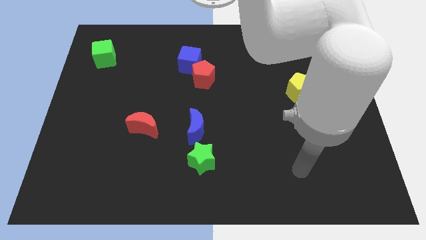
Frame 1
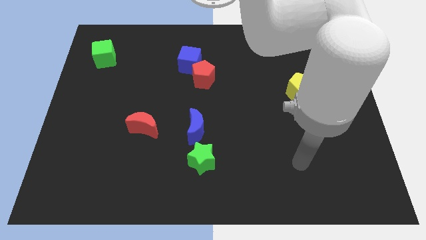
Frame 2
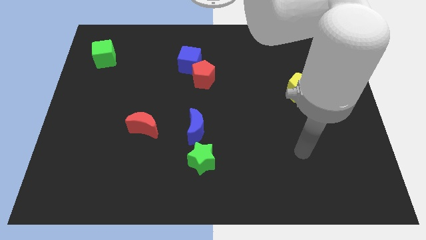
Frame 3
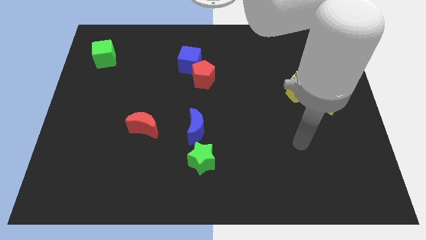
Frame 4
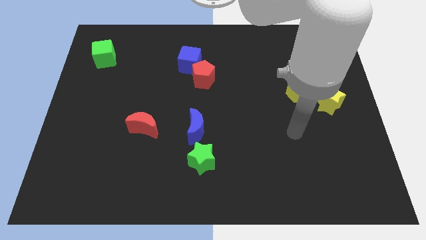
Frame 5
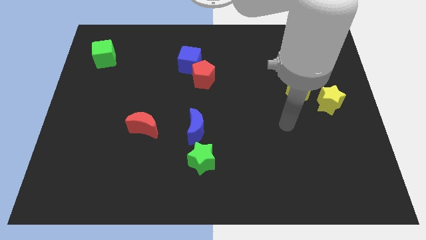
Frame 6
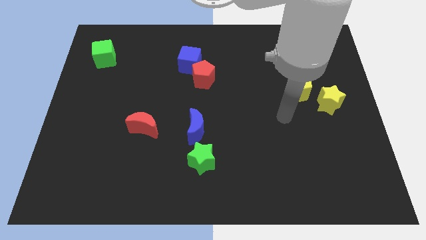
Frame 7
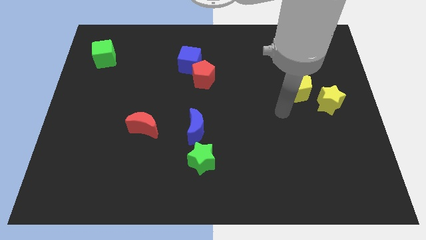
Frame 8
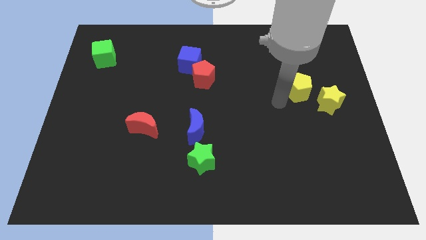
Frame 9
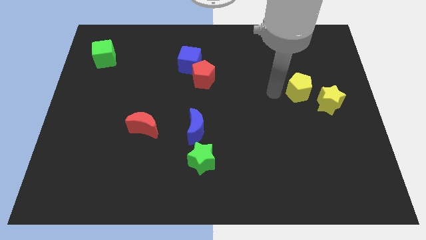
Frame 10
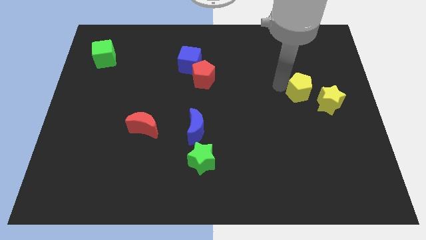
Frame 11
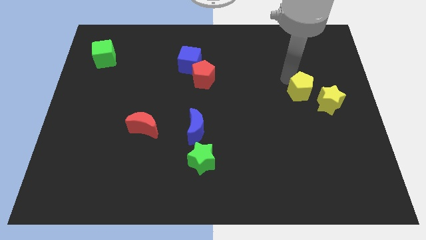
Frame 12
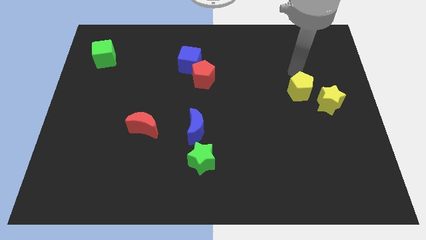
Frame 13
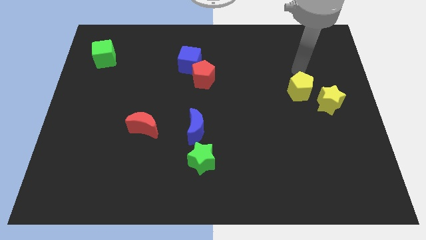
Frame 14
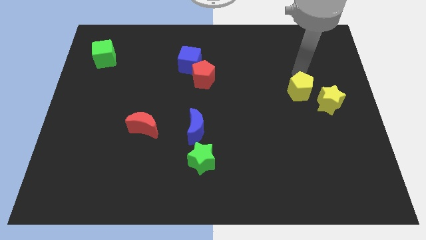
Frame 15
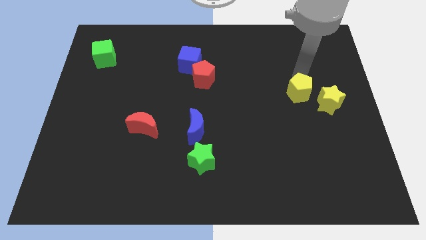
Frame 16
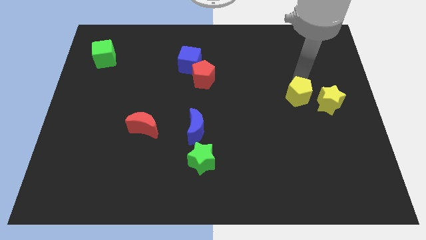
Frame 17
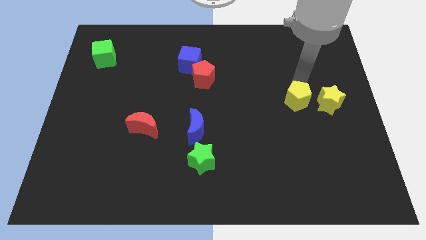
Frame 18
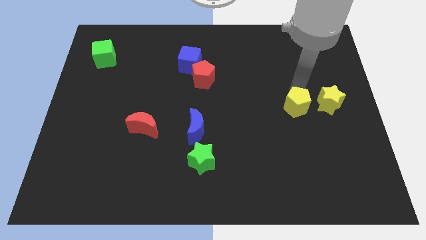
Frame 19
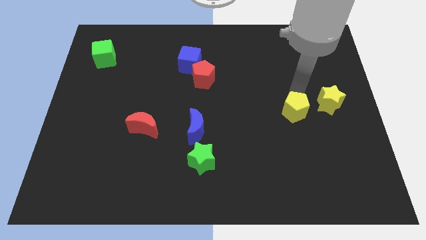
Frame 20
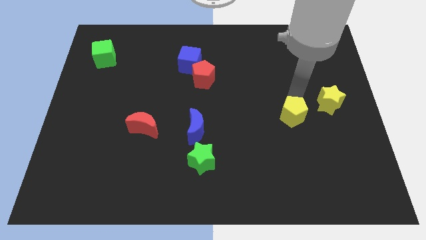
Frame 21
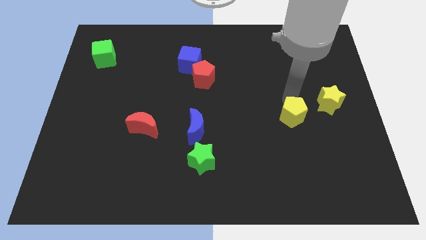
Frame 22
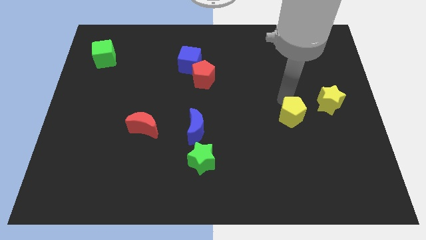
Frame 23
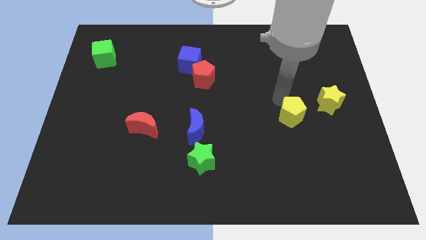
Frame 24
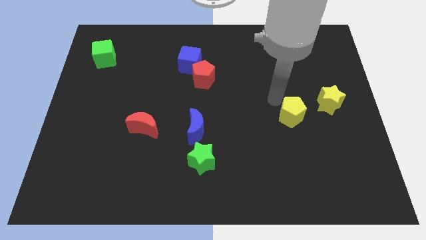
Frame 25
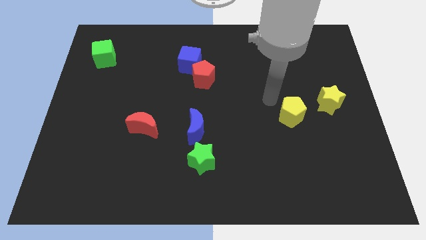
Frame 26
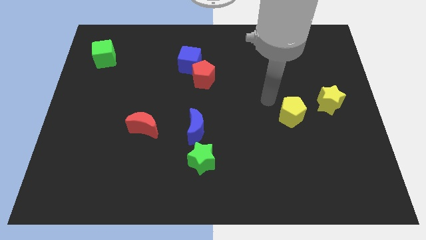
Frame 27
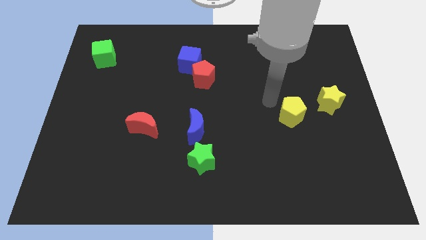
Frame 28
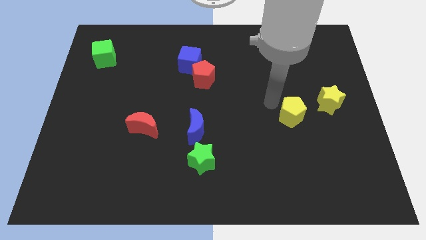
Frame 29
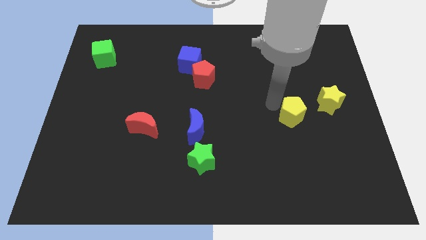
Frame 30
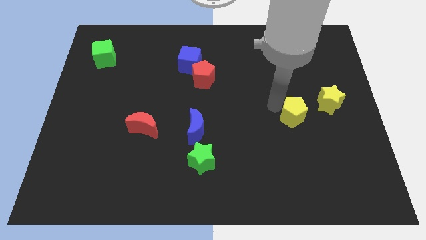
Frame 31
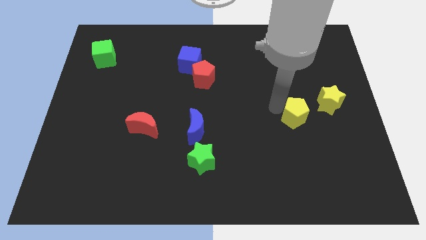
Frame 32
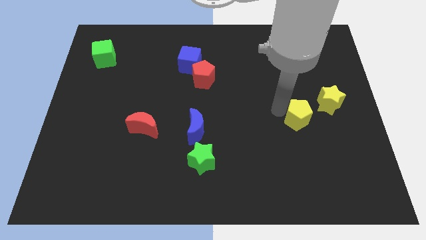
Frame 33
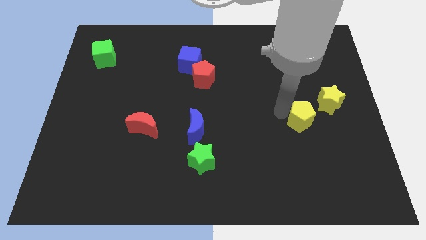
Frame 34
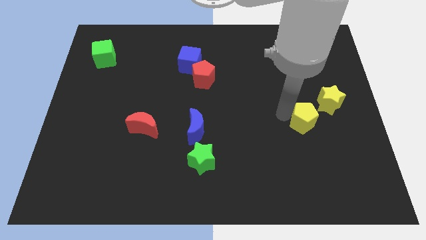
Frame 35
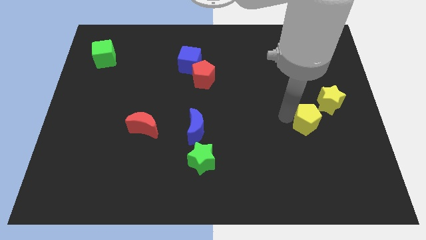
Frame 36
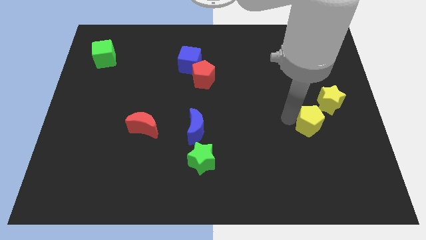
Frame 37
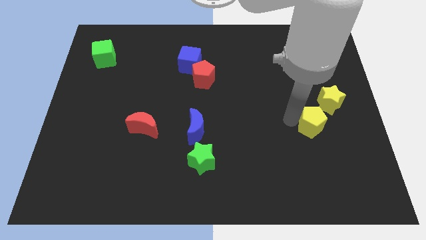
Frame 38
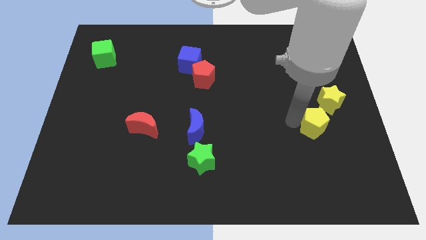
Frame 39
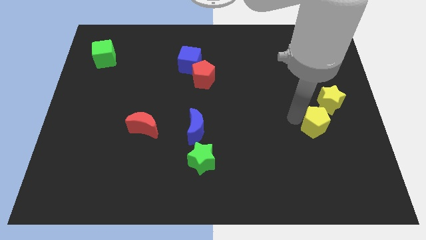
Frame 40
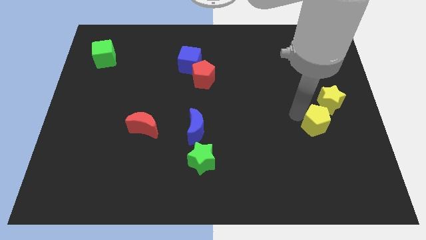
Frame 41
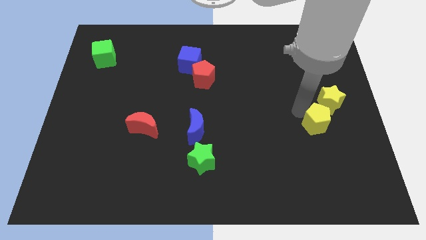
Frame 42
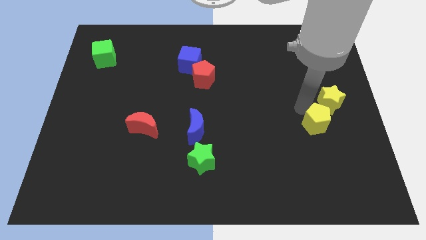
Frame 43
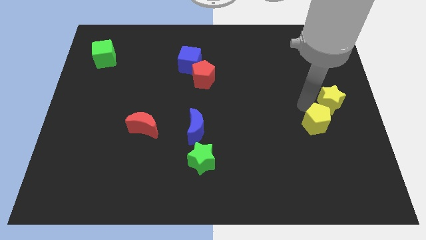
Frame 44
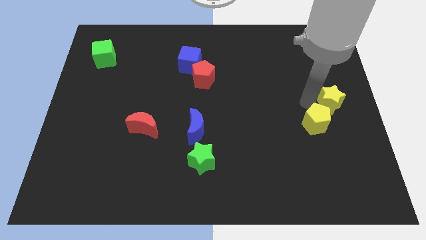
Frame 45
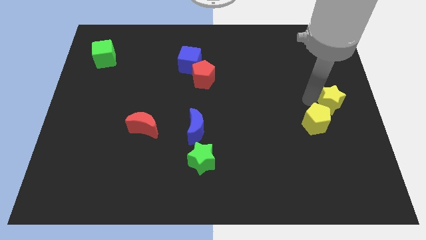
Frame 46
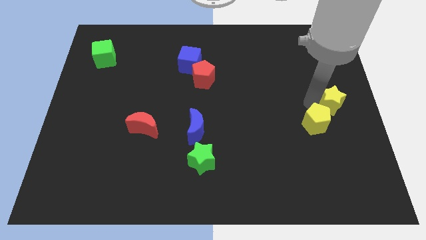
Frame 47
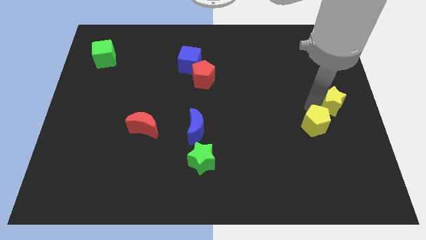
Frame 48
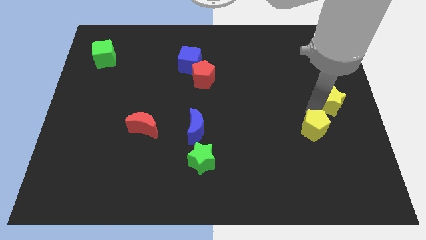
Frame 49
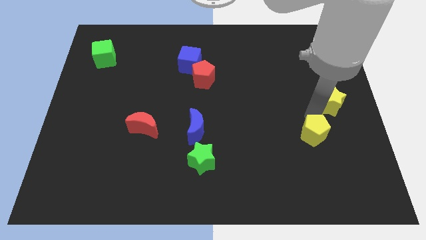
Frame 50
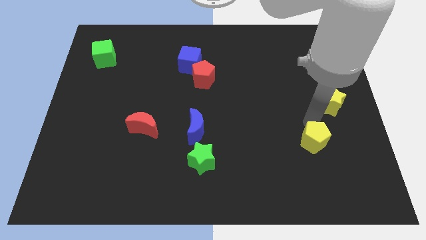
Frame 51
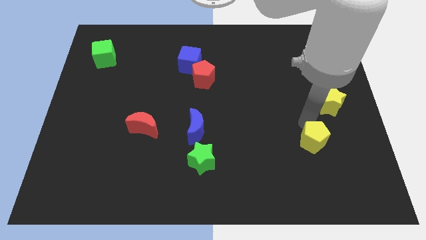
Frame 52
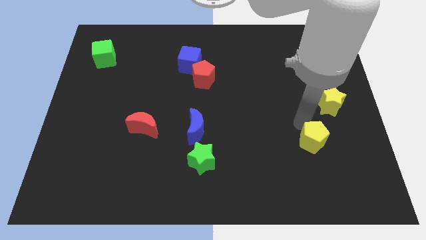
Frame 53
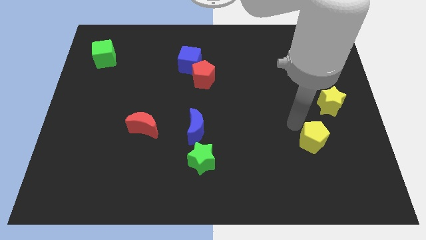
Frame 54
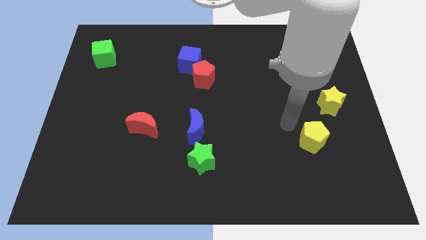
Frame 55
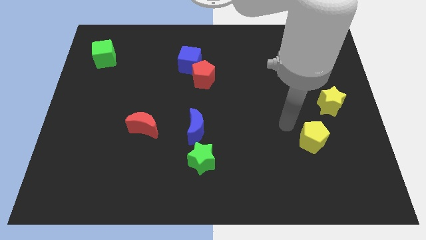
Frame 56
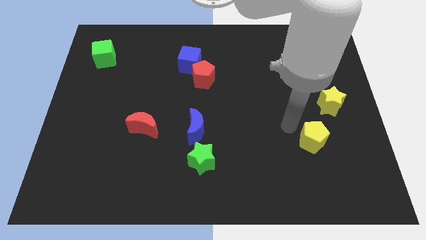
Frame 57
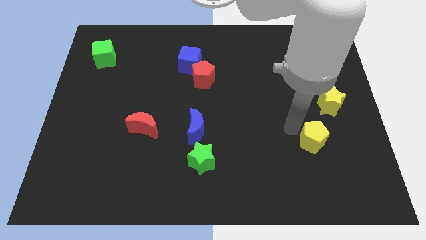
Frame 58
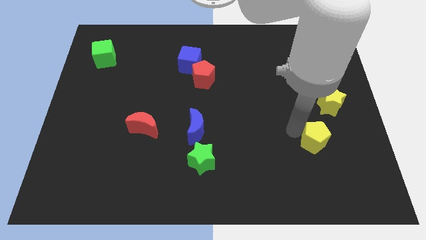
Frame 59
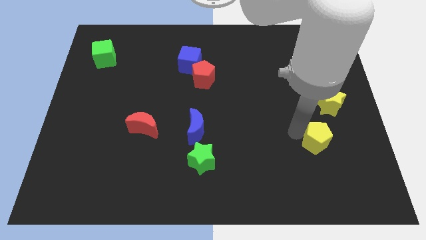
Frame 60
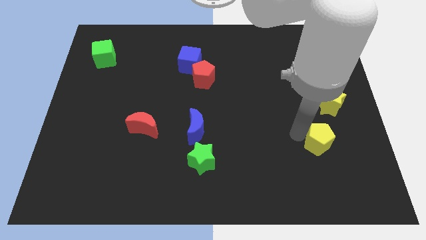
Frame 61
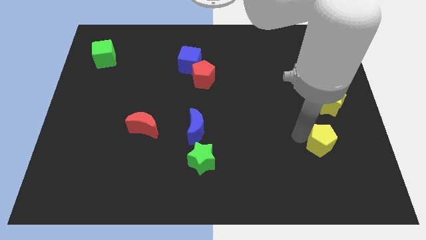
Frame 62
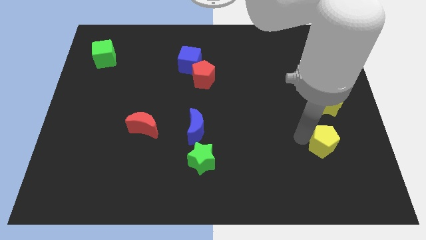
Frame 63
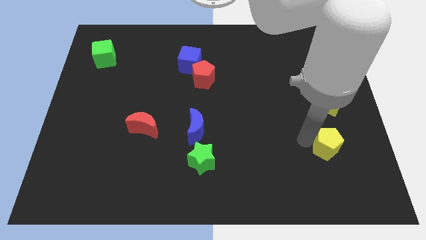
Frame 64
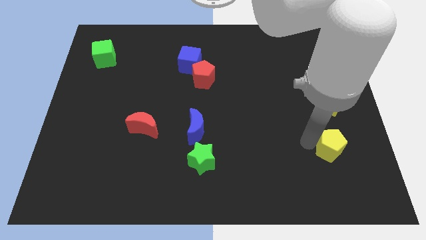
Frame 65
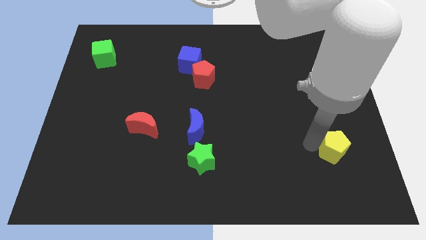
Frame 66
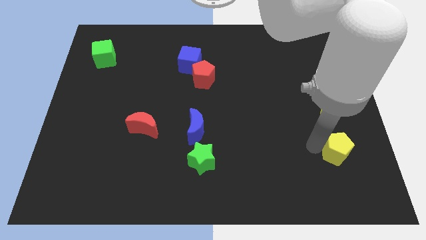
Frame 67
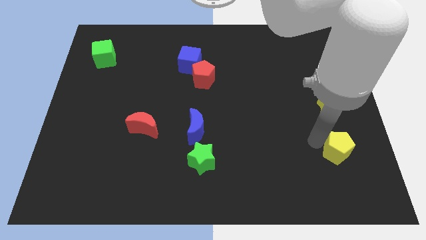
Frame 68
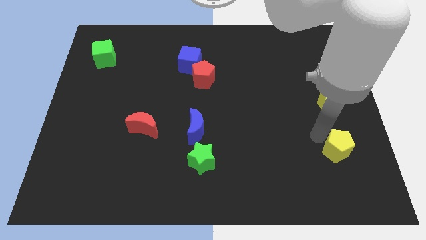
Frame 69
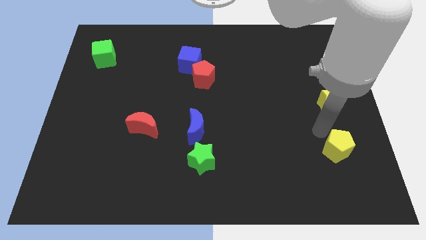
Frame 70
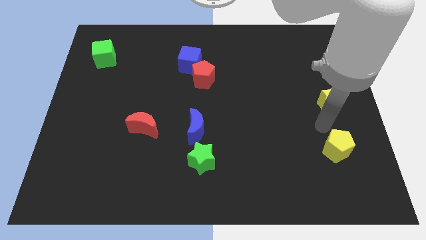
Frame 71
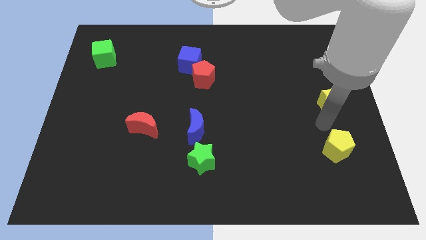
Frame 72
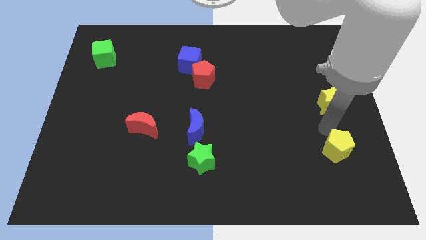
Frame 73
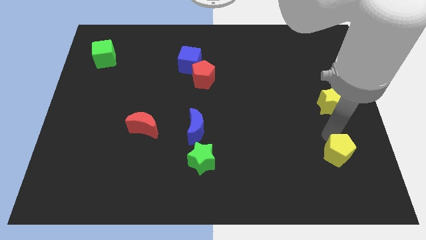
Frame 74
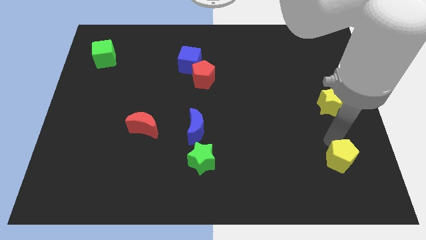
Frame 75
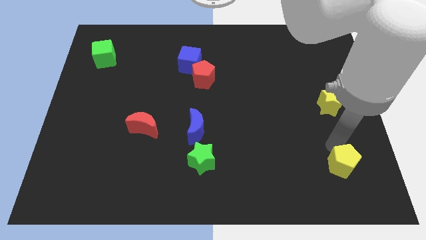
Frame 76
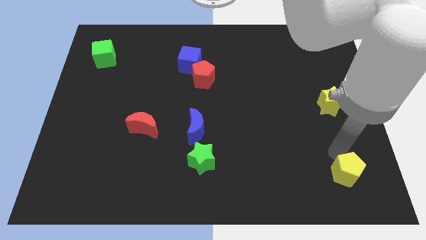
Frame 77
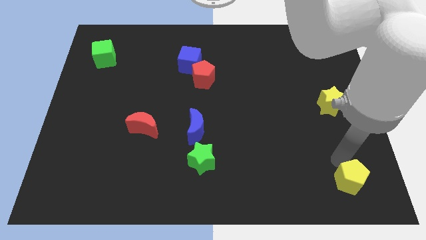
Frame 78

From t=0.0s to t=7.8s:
move the yellow pentagon to the lower right corner

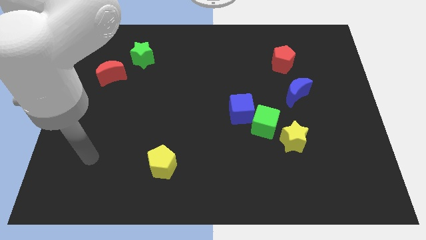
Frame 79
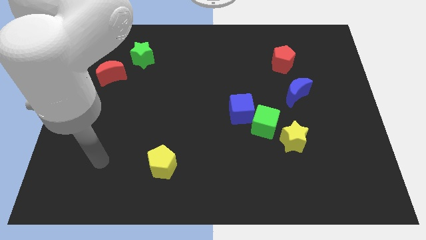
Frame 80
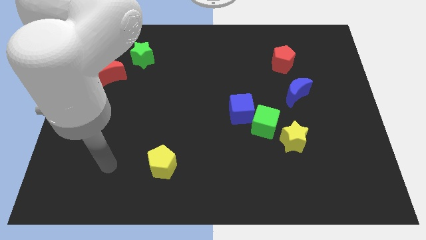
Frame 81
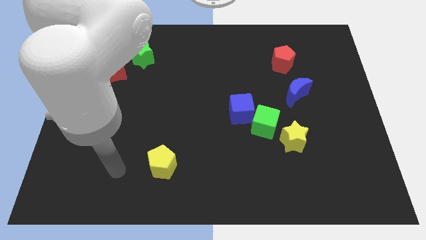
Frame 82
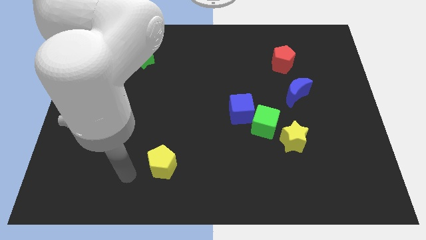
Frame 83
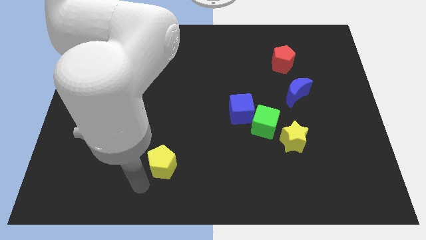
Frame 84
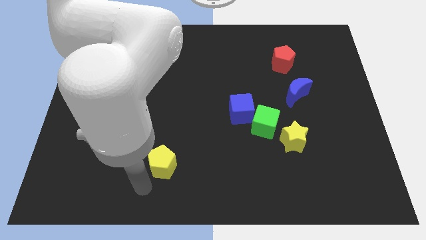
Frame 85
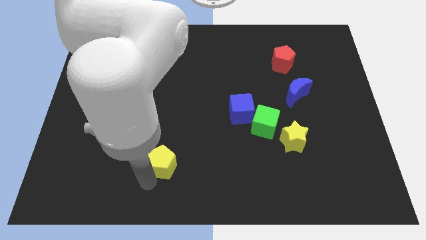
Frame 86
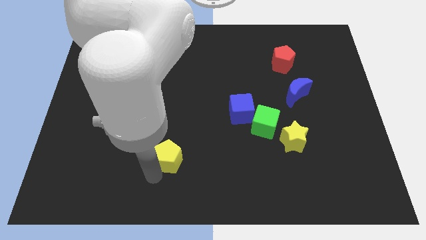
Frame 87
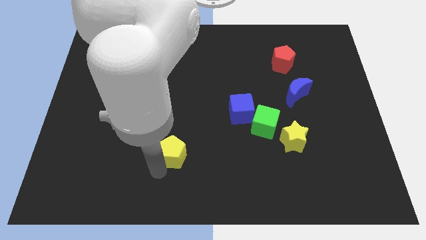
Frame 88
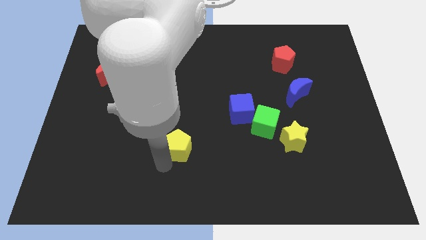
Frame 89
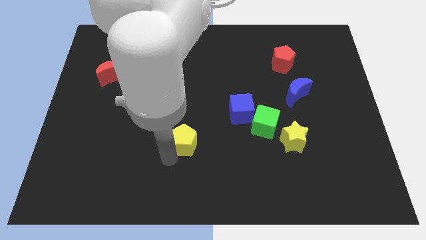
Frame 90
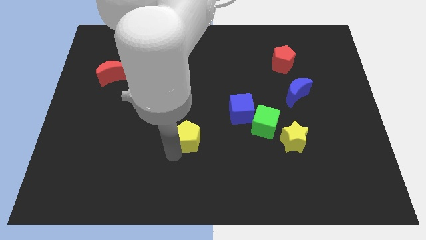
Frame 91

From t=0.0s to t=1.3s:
slide the yellow pentagon to the center
